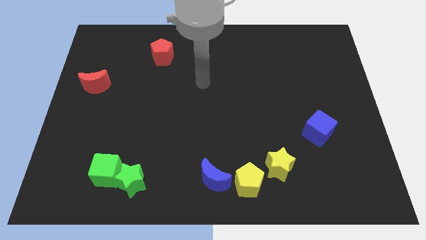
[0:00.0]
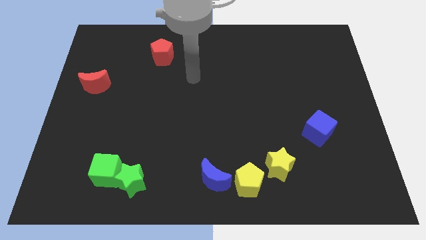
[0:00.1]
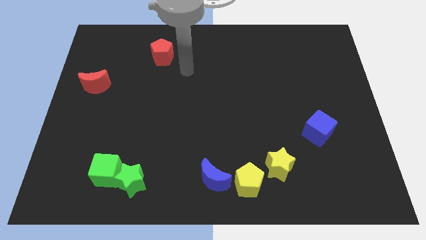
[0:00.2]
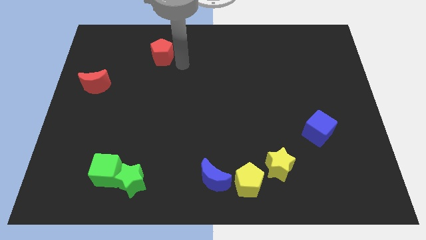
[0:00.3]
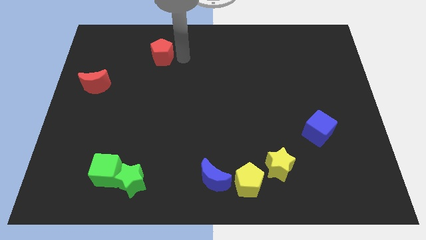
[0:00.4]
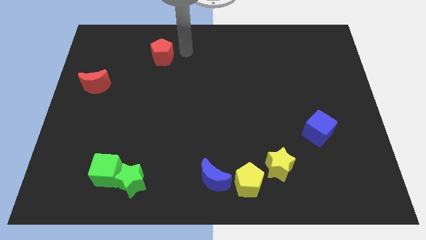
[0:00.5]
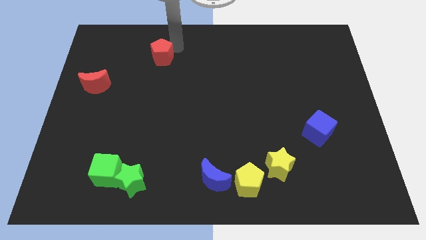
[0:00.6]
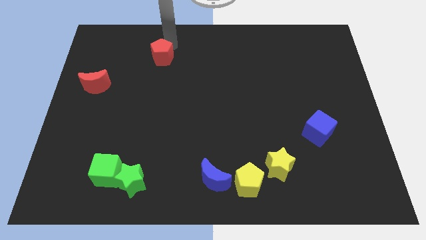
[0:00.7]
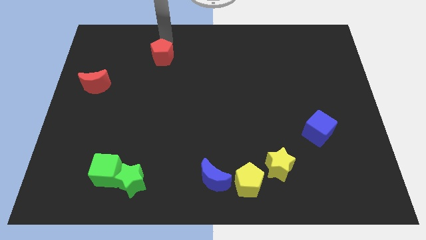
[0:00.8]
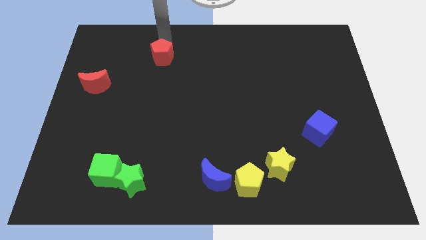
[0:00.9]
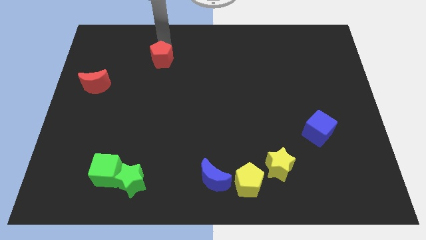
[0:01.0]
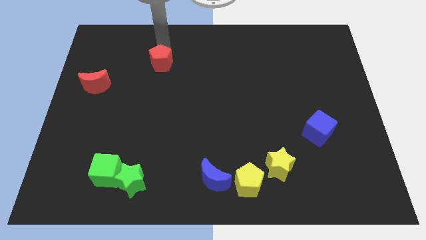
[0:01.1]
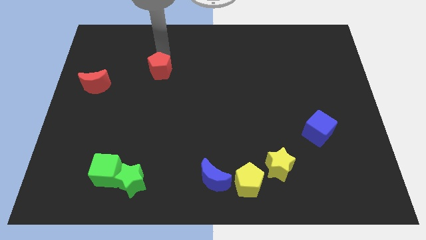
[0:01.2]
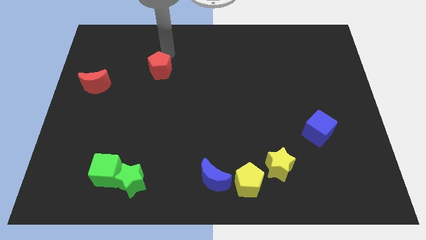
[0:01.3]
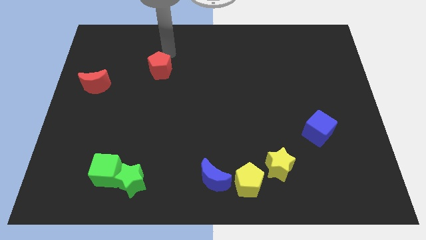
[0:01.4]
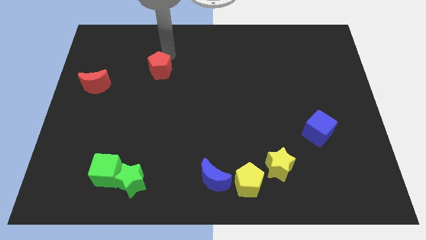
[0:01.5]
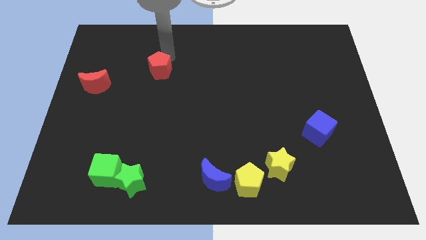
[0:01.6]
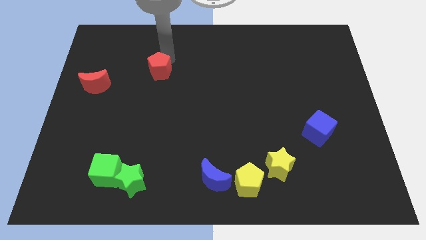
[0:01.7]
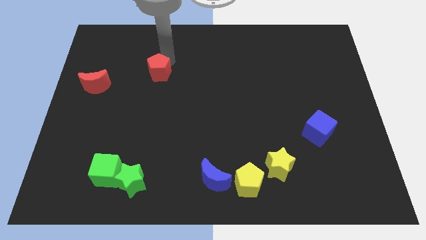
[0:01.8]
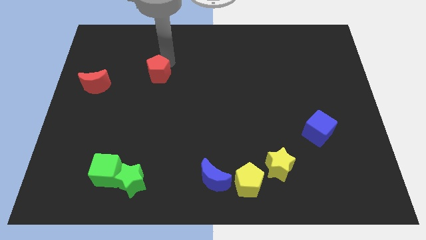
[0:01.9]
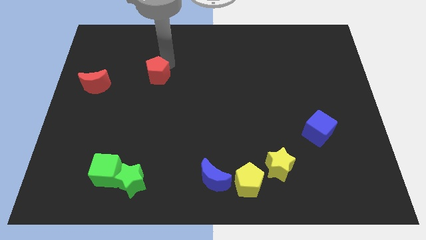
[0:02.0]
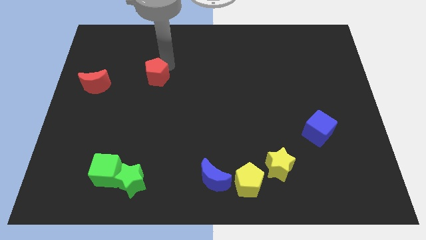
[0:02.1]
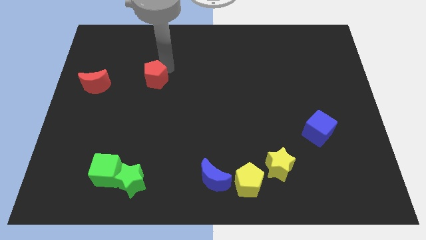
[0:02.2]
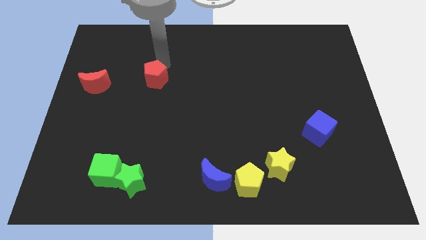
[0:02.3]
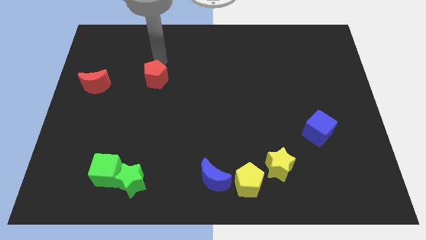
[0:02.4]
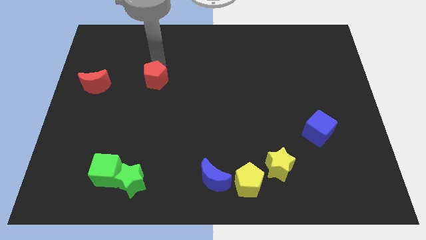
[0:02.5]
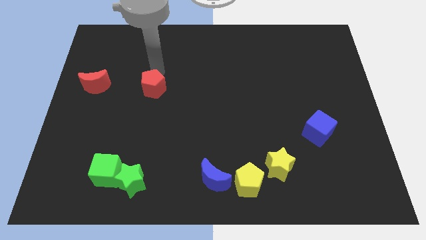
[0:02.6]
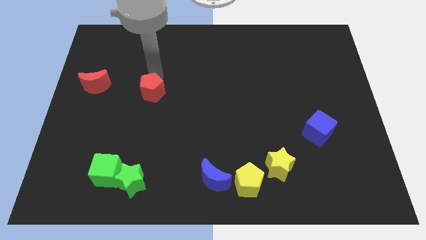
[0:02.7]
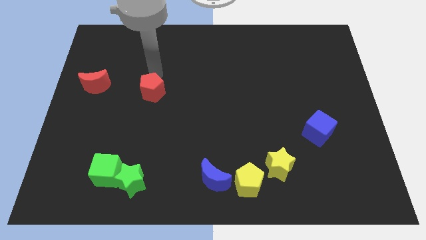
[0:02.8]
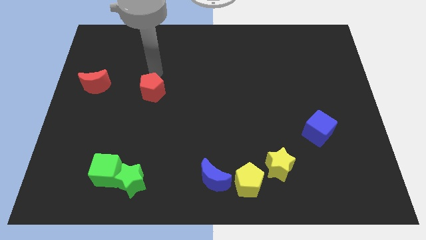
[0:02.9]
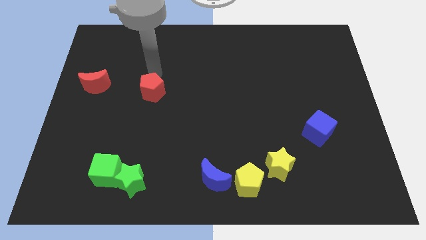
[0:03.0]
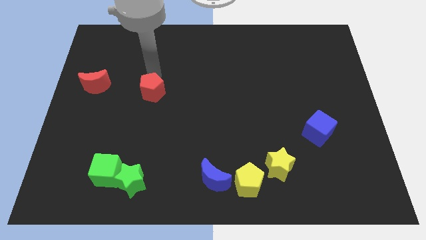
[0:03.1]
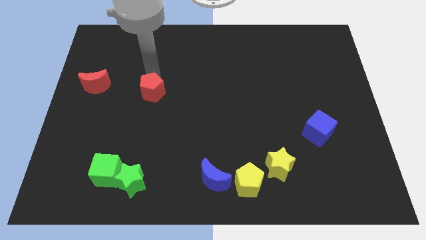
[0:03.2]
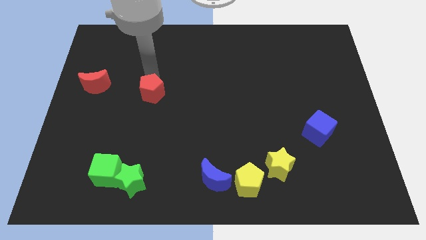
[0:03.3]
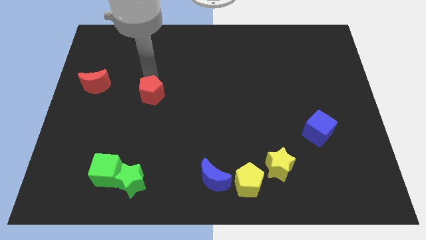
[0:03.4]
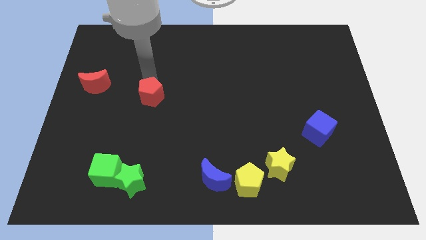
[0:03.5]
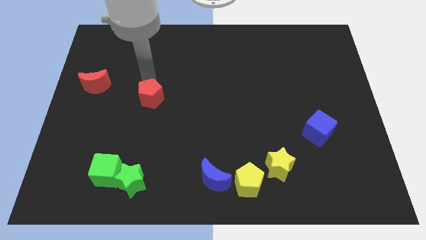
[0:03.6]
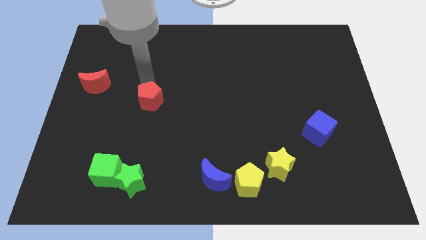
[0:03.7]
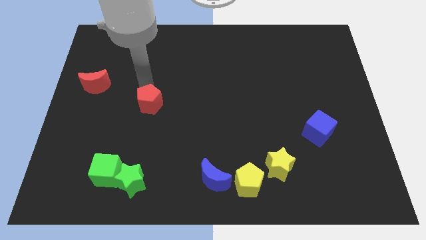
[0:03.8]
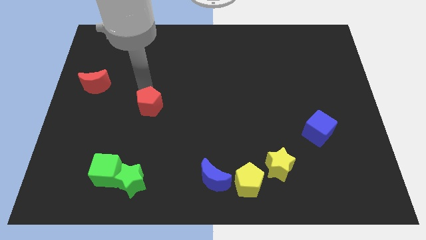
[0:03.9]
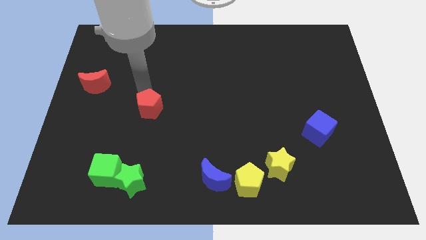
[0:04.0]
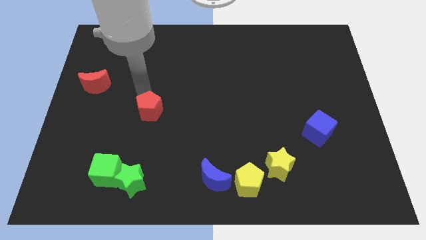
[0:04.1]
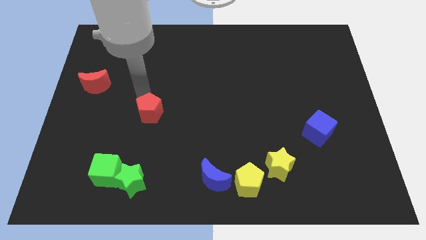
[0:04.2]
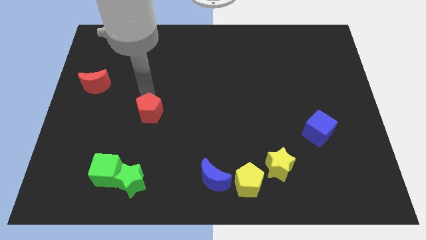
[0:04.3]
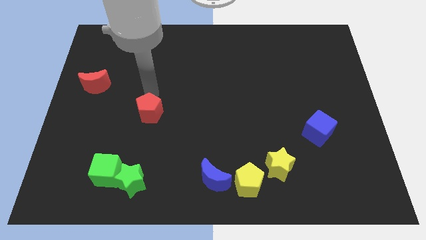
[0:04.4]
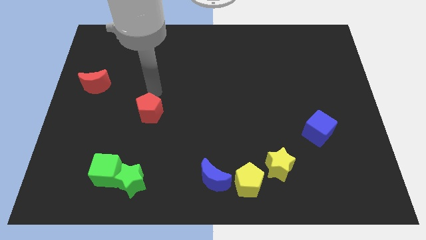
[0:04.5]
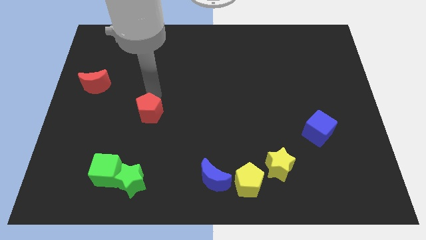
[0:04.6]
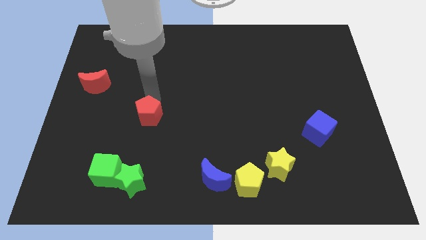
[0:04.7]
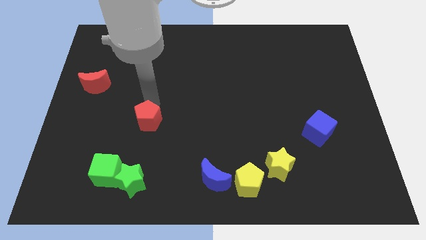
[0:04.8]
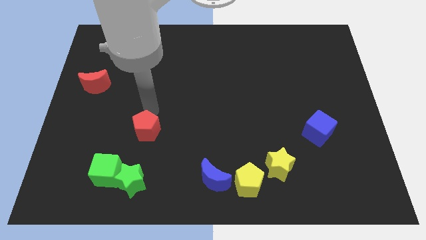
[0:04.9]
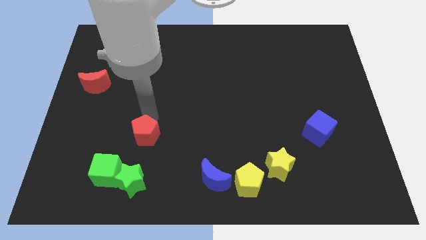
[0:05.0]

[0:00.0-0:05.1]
move the red pentagon to the top right of the green cube

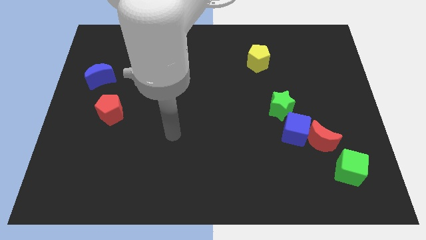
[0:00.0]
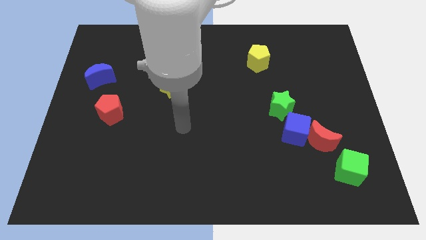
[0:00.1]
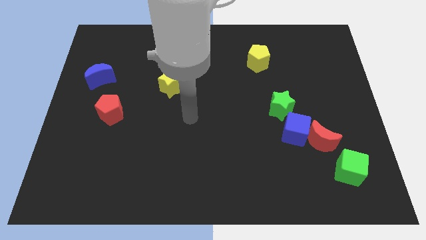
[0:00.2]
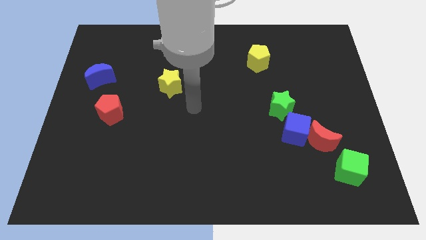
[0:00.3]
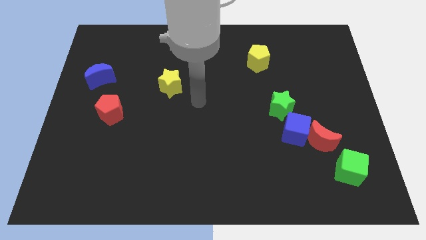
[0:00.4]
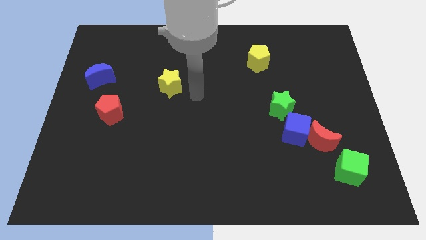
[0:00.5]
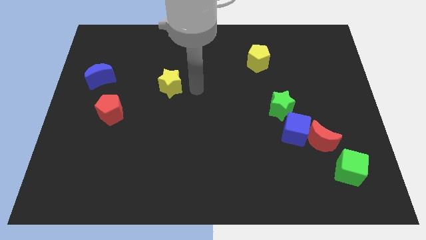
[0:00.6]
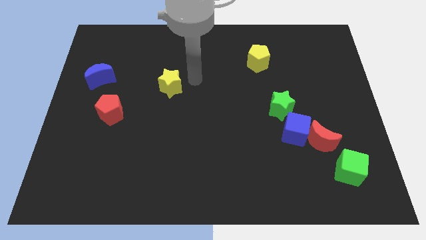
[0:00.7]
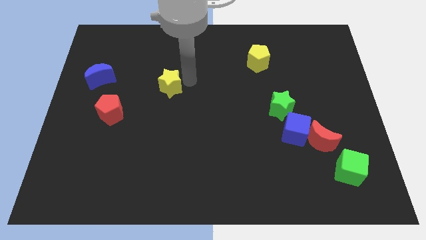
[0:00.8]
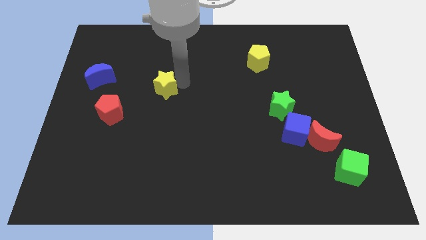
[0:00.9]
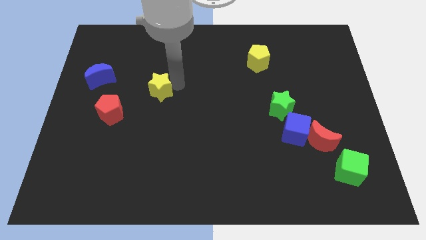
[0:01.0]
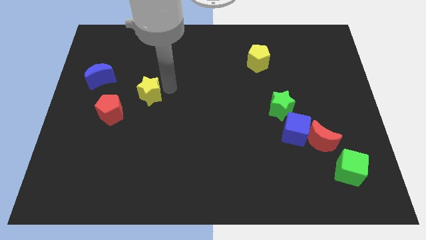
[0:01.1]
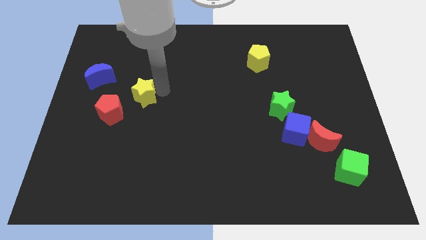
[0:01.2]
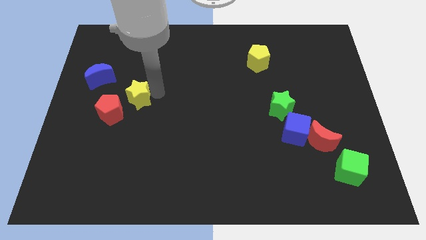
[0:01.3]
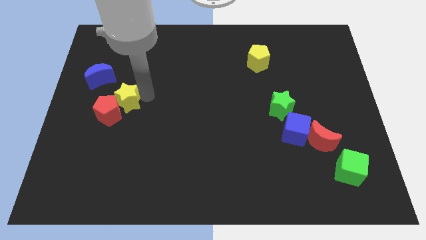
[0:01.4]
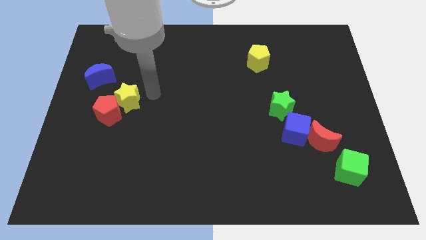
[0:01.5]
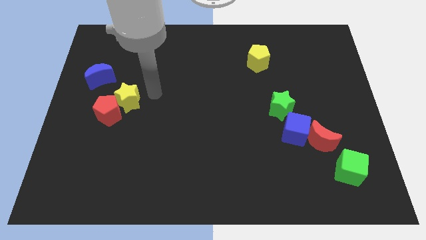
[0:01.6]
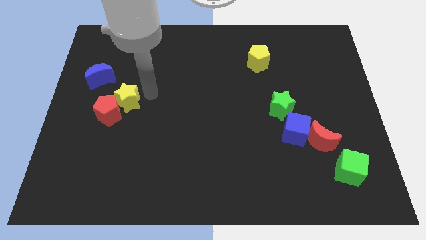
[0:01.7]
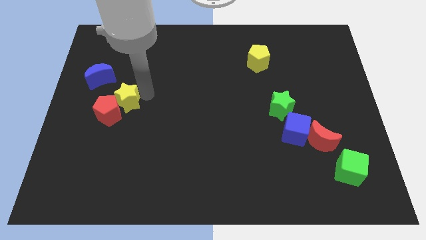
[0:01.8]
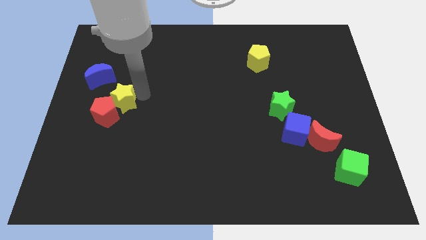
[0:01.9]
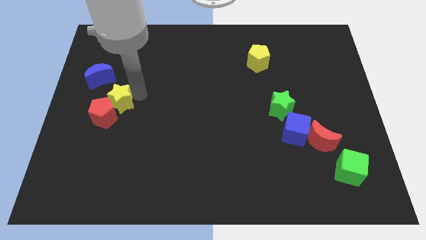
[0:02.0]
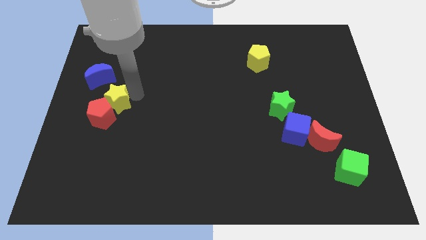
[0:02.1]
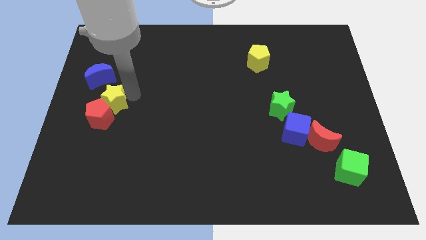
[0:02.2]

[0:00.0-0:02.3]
push the yellow star to the bottom side of the blue moon

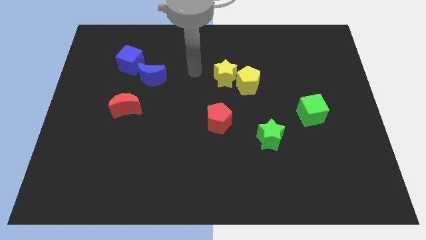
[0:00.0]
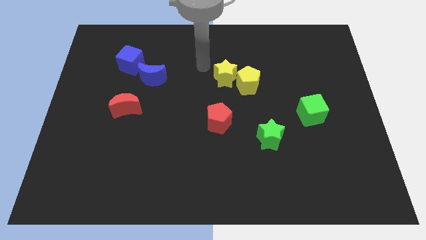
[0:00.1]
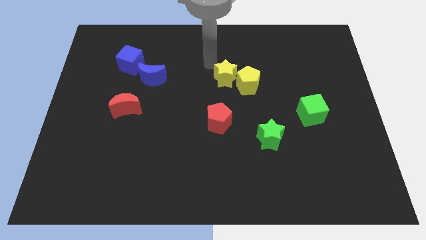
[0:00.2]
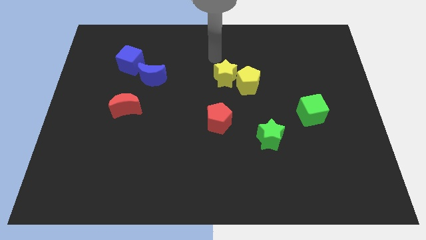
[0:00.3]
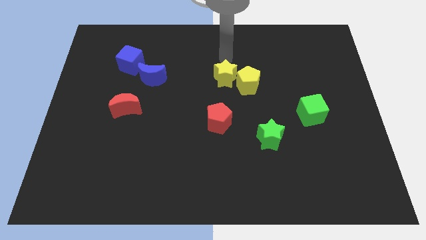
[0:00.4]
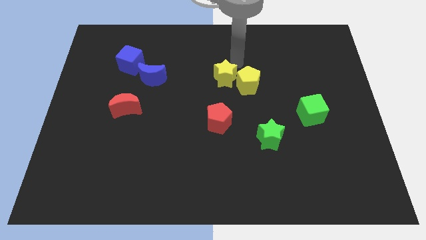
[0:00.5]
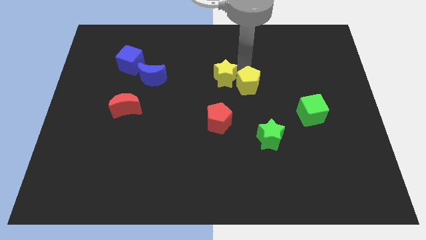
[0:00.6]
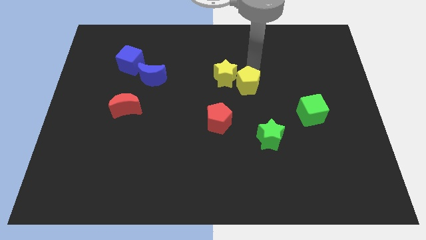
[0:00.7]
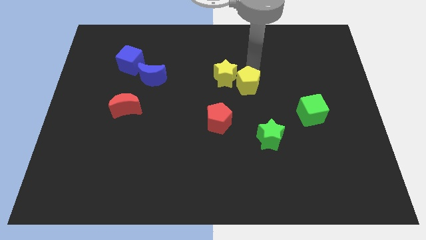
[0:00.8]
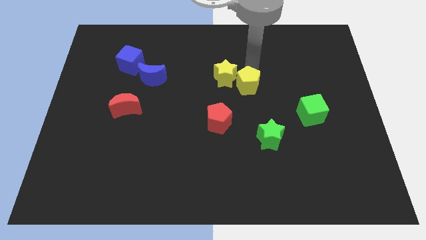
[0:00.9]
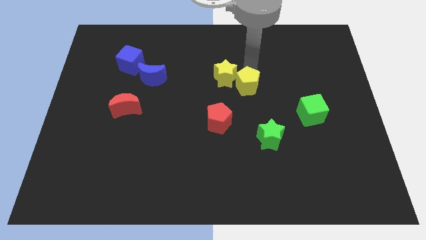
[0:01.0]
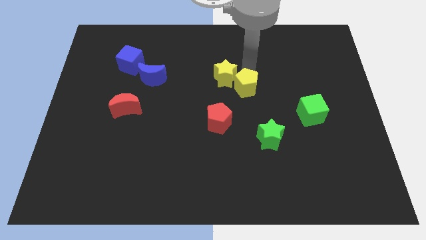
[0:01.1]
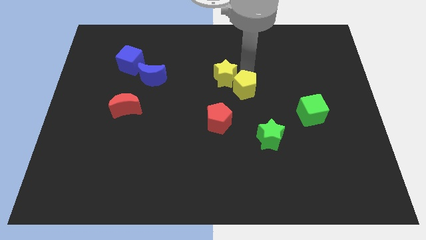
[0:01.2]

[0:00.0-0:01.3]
slide the yellow pentagon diagonally up and to the right of the red pentagon
